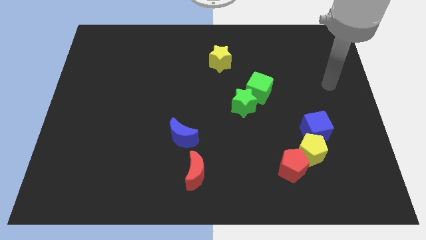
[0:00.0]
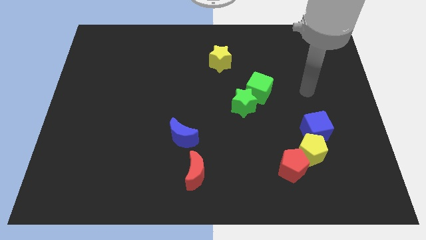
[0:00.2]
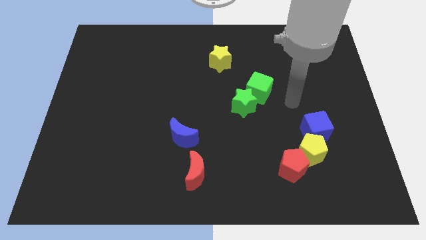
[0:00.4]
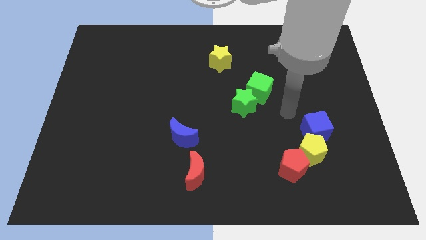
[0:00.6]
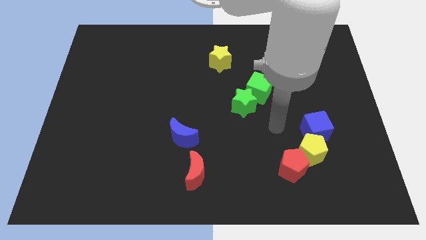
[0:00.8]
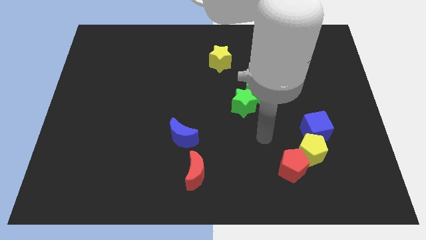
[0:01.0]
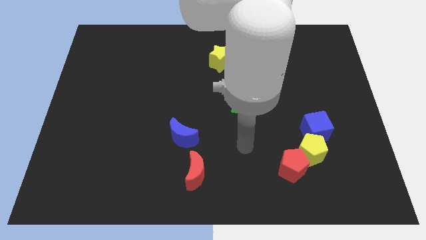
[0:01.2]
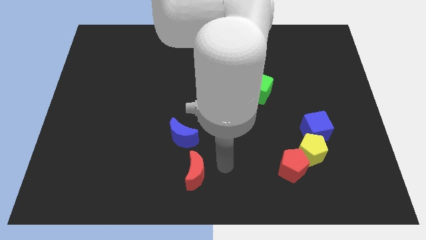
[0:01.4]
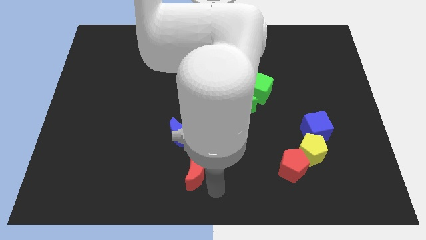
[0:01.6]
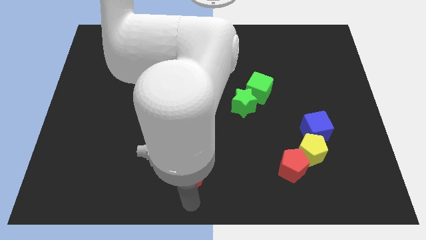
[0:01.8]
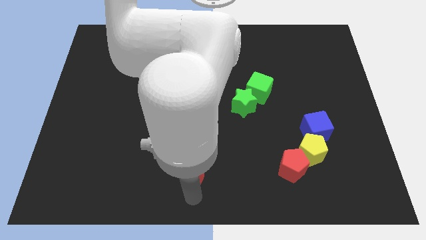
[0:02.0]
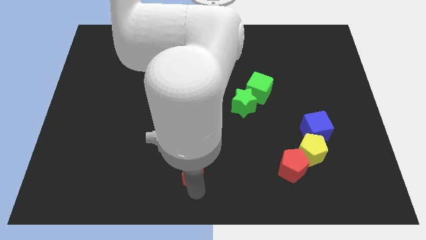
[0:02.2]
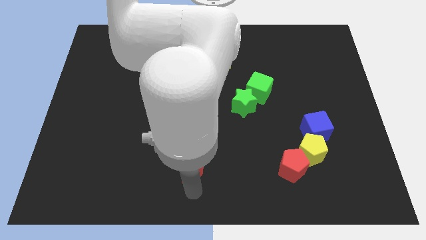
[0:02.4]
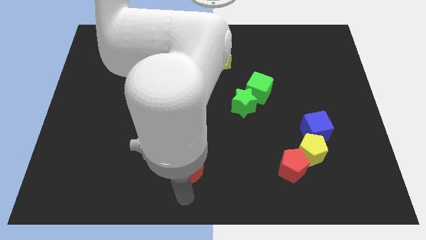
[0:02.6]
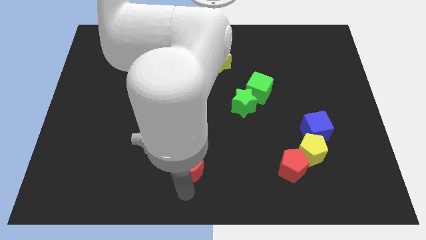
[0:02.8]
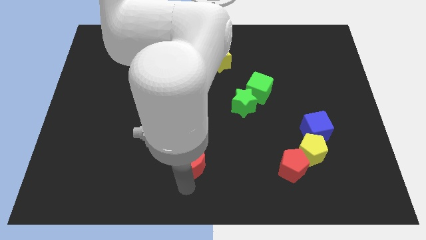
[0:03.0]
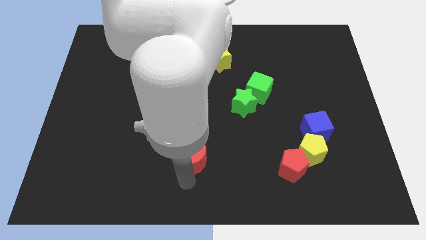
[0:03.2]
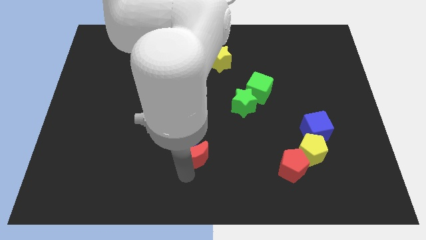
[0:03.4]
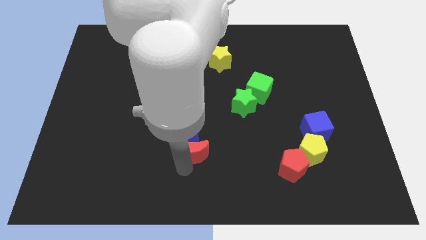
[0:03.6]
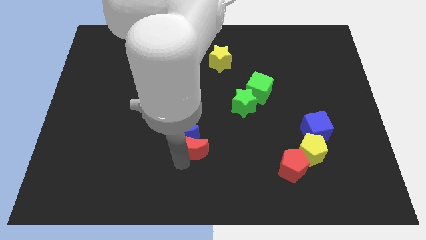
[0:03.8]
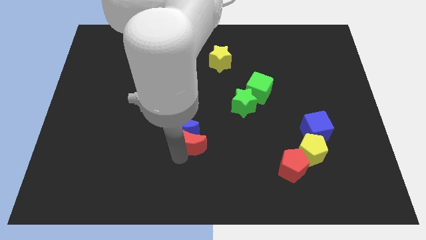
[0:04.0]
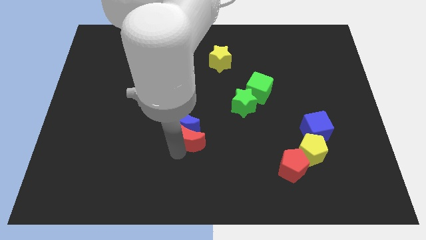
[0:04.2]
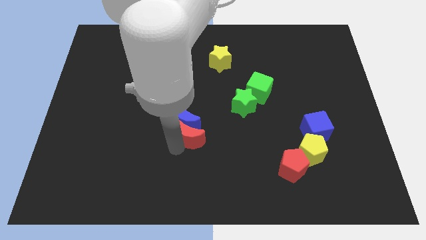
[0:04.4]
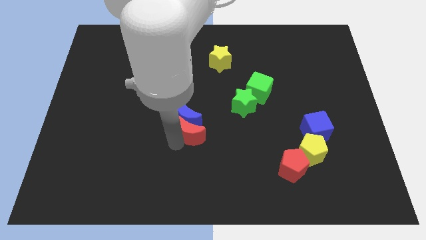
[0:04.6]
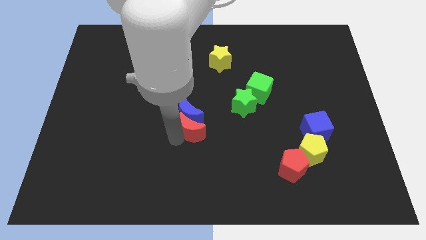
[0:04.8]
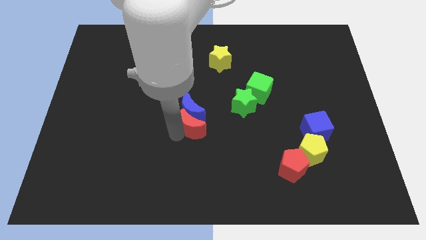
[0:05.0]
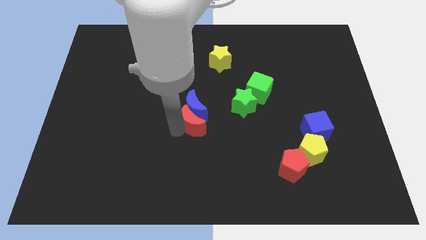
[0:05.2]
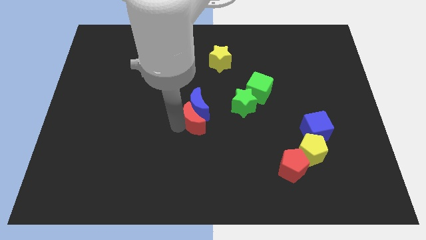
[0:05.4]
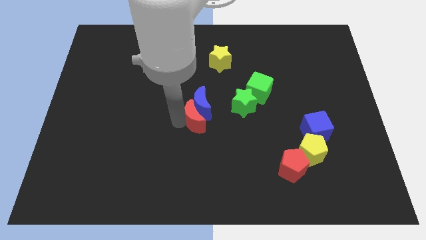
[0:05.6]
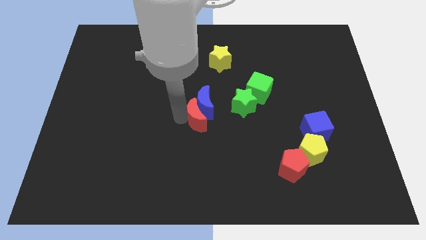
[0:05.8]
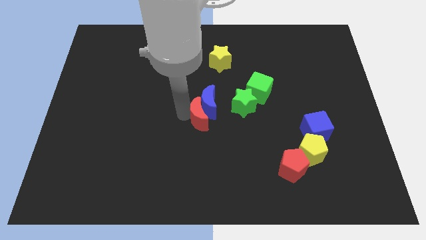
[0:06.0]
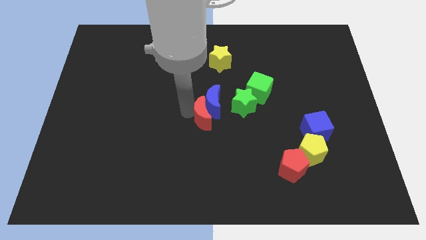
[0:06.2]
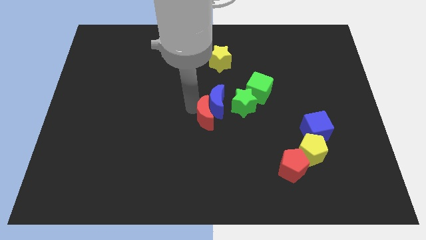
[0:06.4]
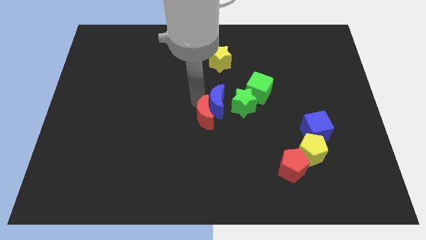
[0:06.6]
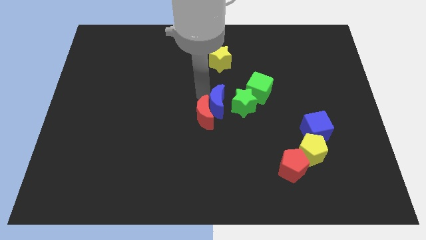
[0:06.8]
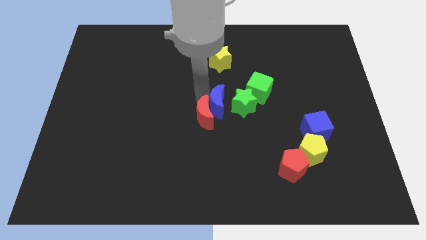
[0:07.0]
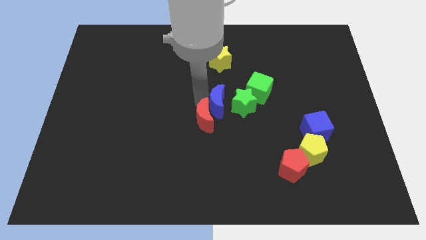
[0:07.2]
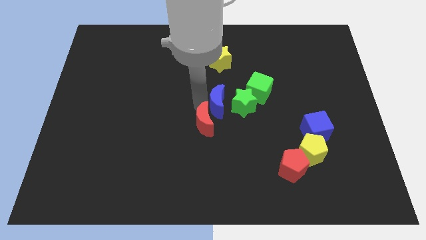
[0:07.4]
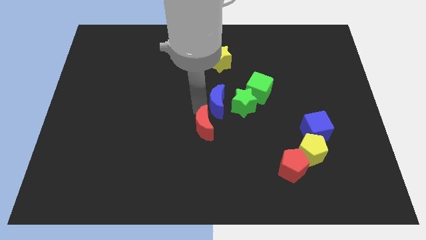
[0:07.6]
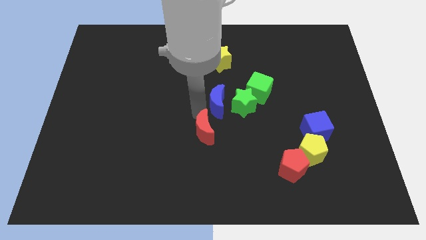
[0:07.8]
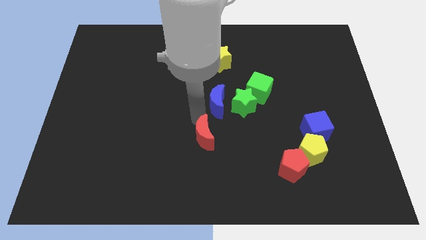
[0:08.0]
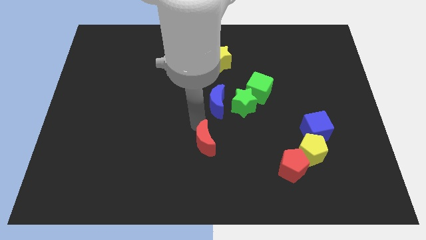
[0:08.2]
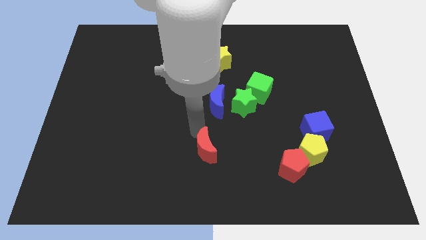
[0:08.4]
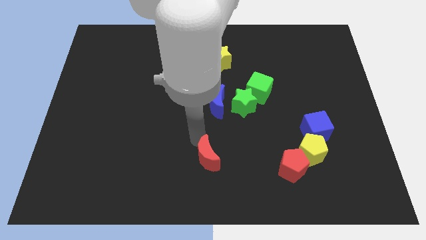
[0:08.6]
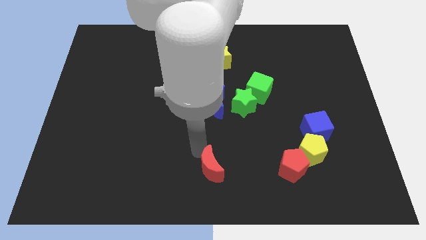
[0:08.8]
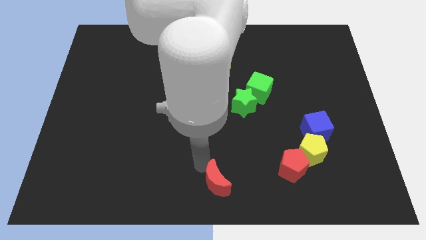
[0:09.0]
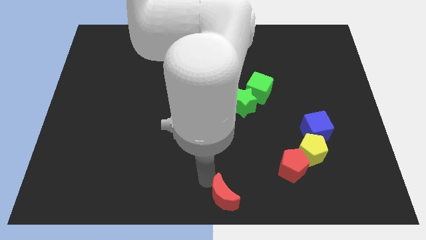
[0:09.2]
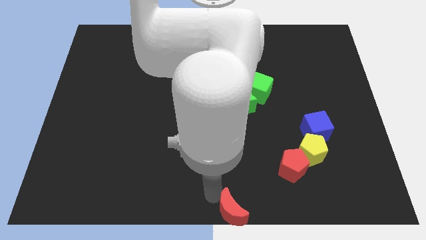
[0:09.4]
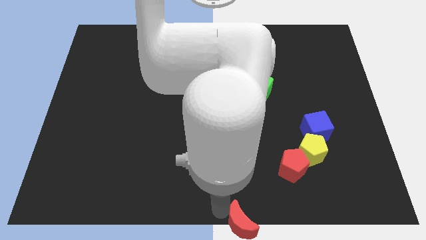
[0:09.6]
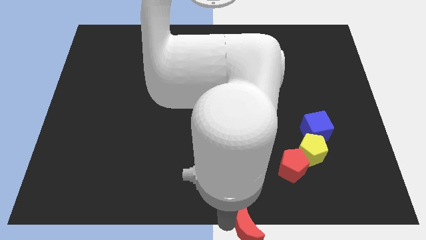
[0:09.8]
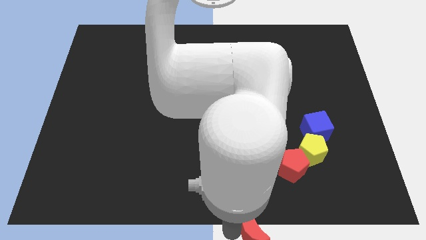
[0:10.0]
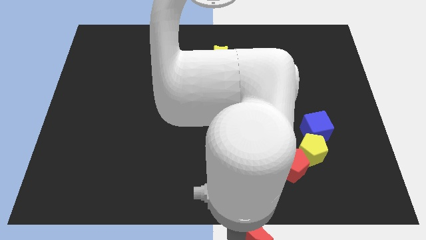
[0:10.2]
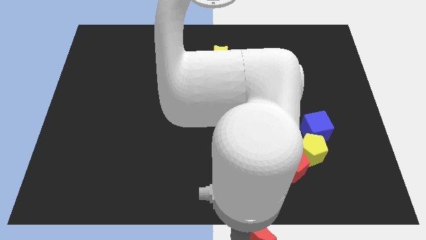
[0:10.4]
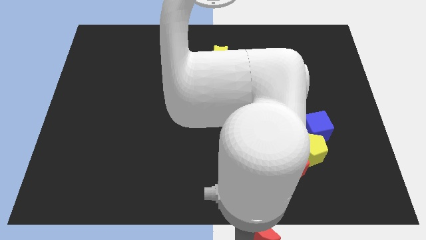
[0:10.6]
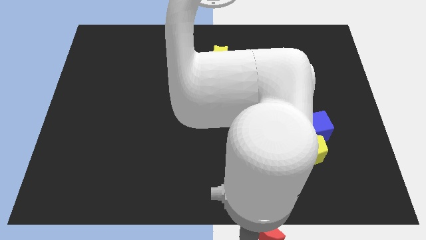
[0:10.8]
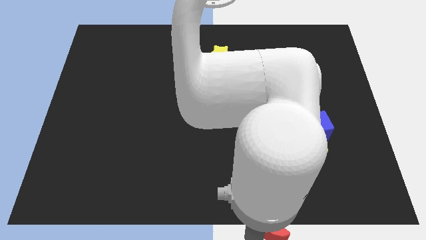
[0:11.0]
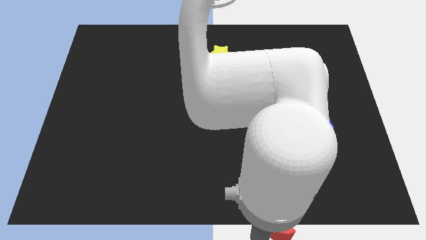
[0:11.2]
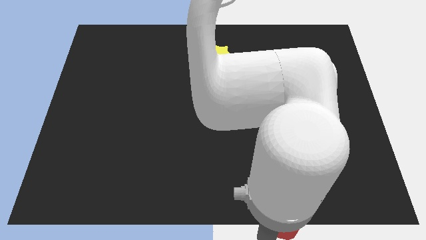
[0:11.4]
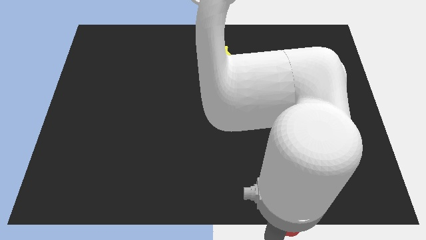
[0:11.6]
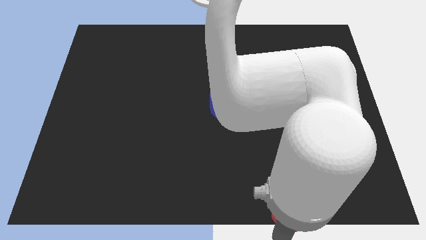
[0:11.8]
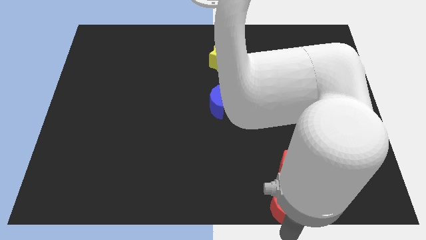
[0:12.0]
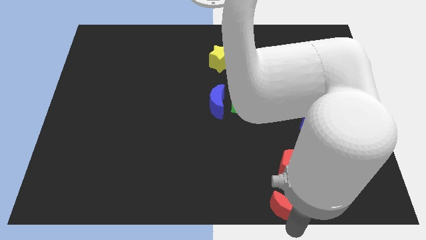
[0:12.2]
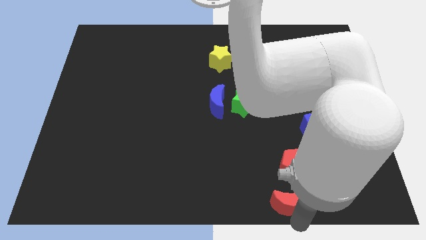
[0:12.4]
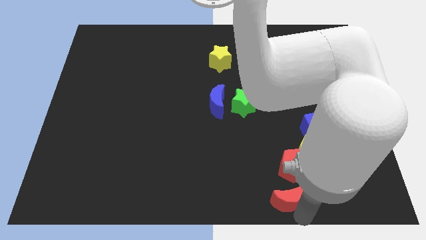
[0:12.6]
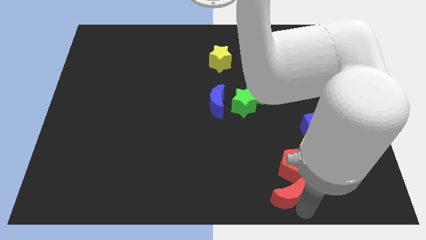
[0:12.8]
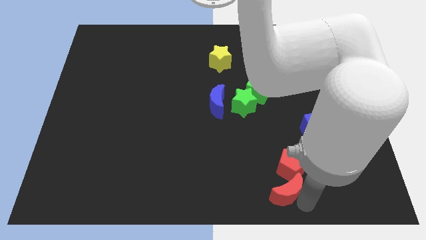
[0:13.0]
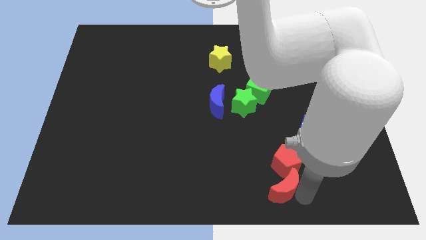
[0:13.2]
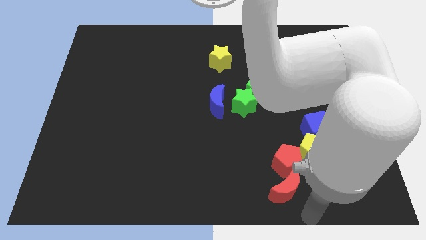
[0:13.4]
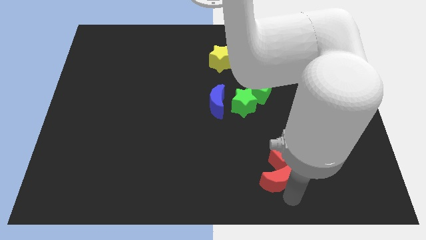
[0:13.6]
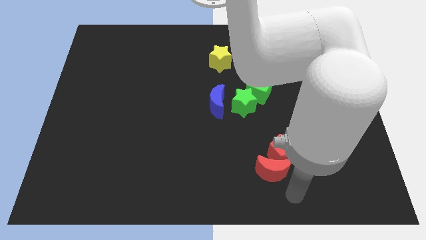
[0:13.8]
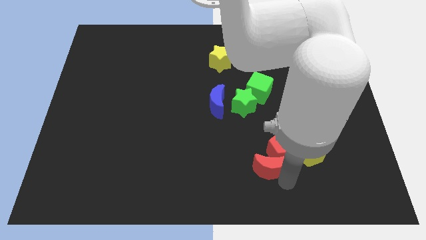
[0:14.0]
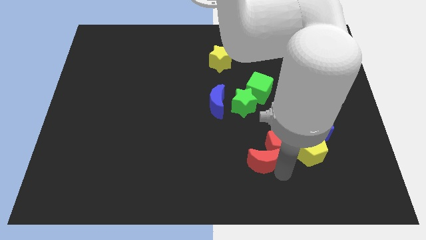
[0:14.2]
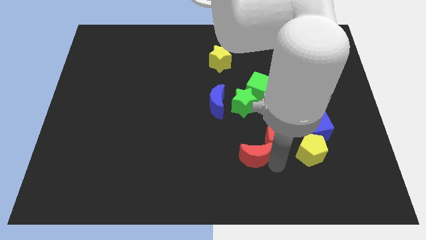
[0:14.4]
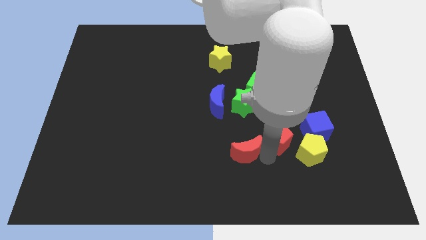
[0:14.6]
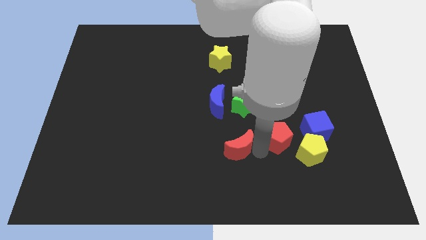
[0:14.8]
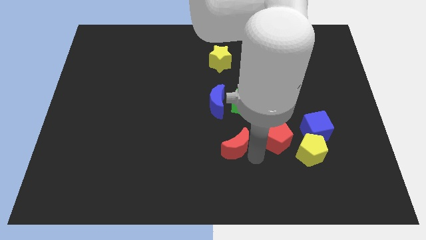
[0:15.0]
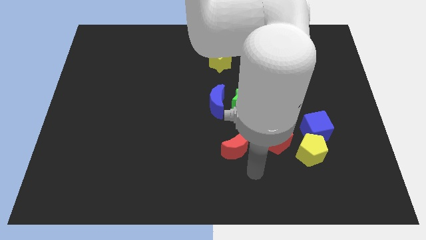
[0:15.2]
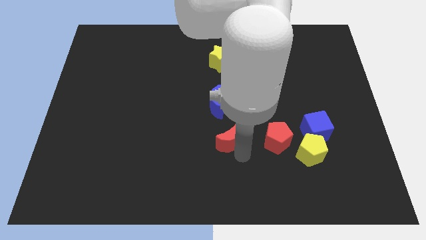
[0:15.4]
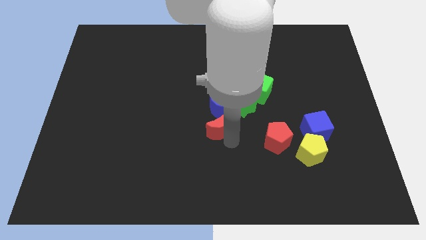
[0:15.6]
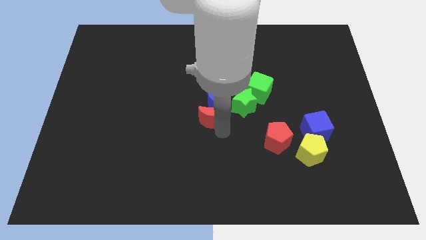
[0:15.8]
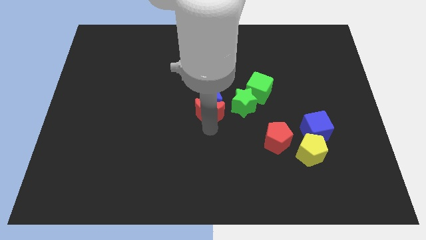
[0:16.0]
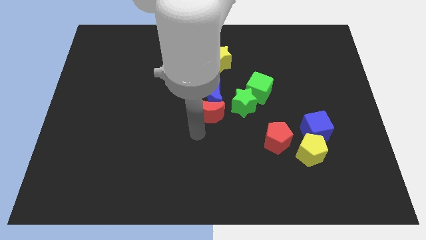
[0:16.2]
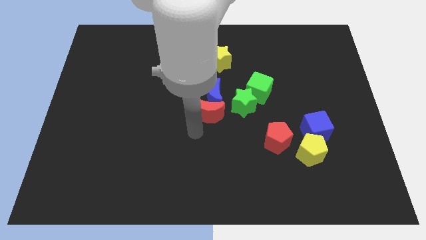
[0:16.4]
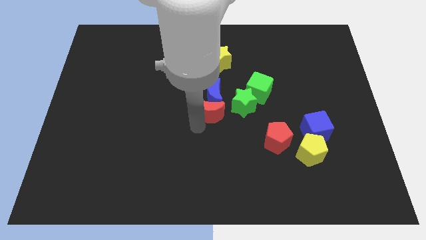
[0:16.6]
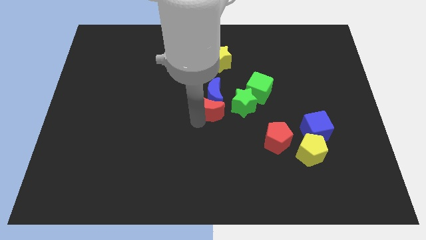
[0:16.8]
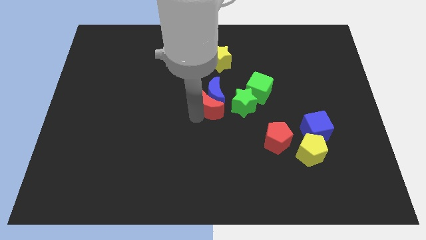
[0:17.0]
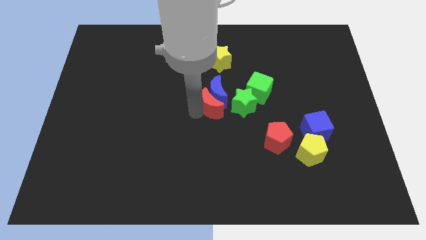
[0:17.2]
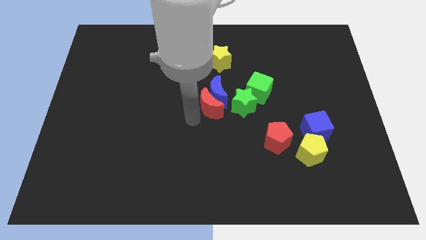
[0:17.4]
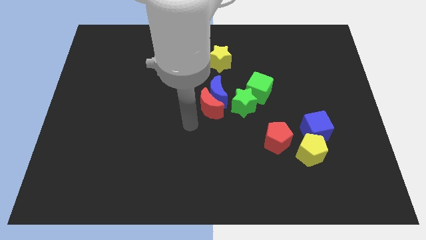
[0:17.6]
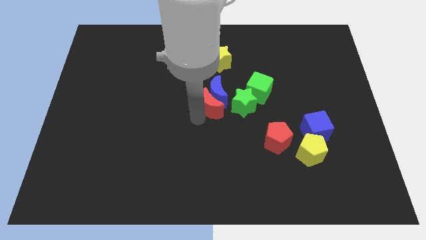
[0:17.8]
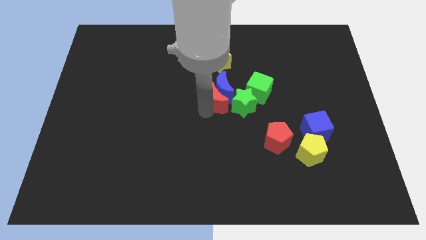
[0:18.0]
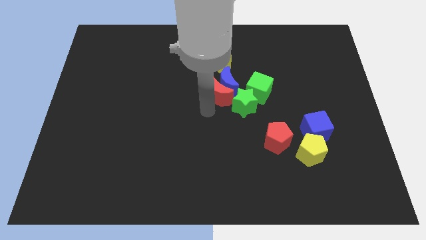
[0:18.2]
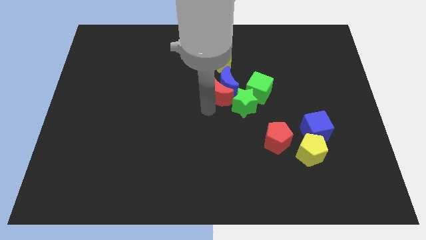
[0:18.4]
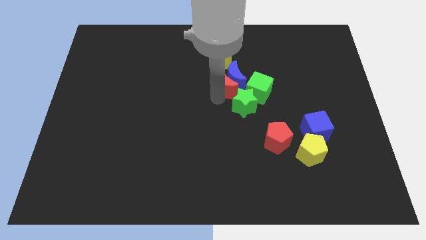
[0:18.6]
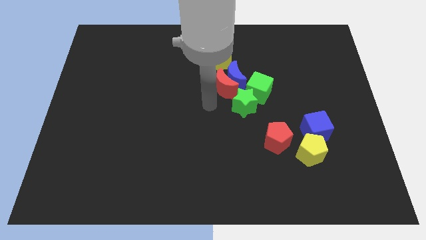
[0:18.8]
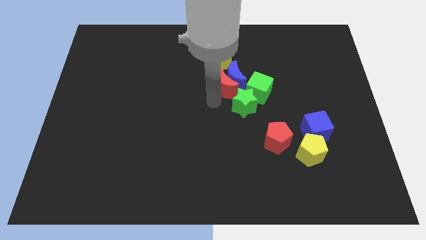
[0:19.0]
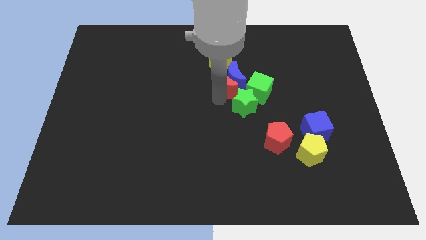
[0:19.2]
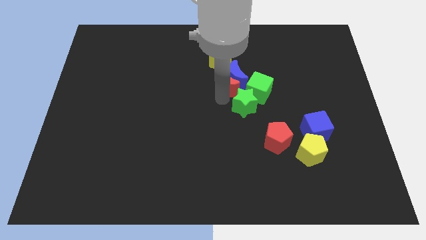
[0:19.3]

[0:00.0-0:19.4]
put the red moon to the top left side of the green cube
